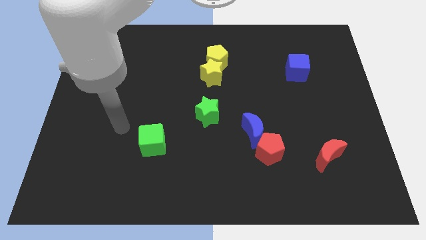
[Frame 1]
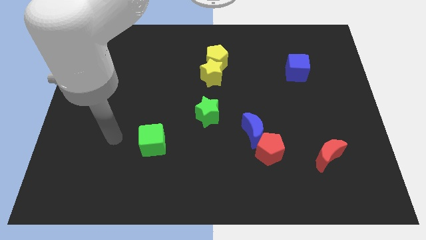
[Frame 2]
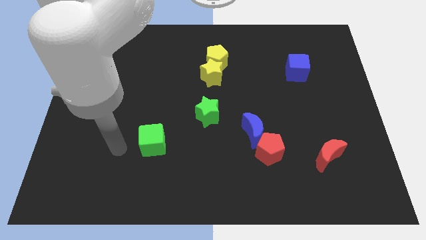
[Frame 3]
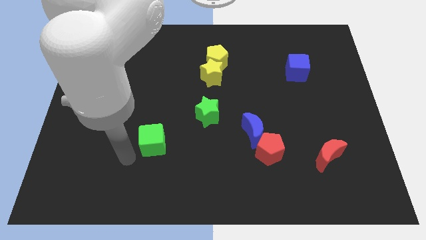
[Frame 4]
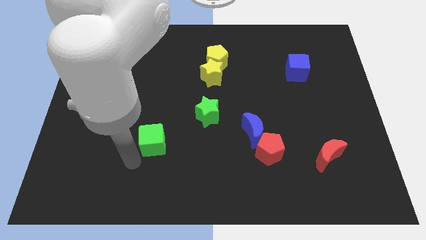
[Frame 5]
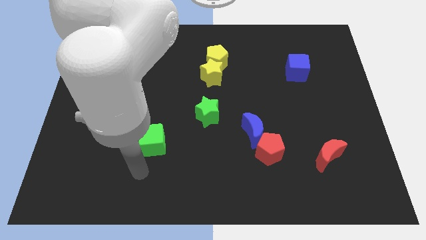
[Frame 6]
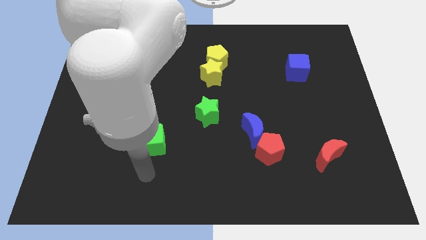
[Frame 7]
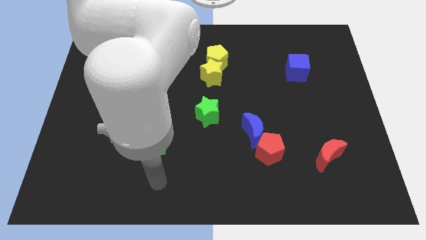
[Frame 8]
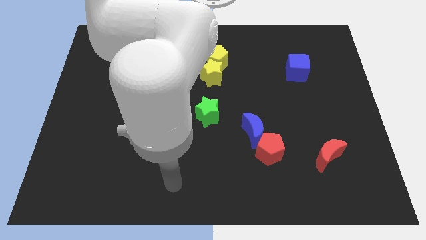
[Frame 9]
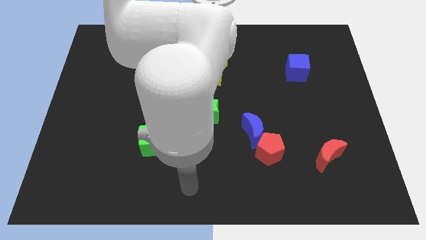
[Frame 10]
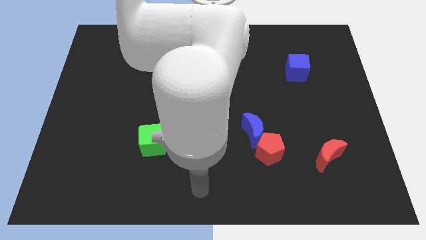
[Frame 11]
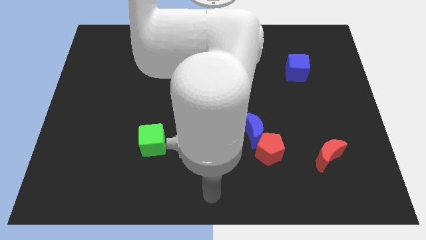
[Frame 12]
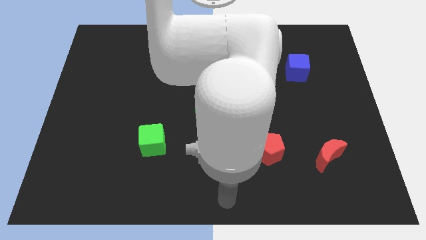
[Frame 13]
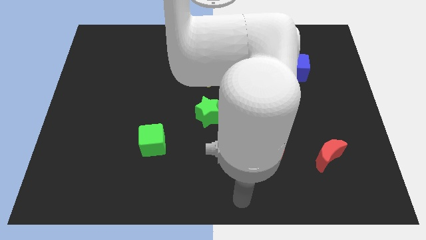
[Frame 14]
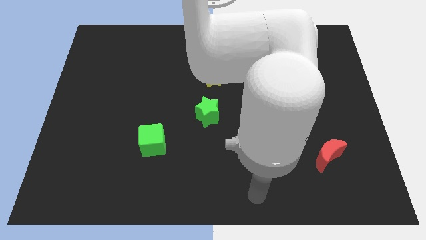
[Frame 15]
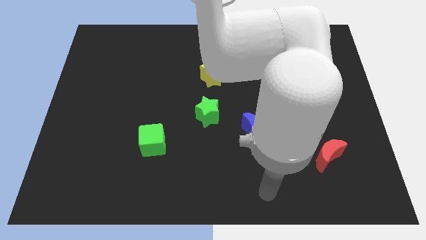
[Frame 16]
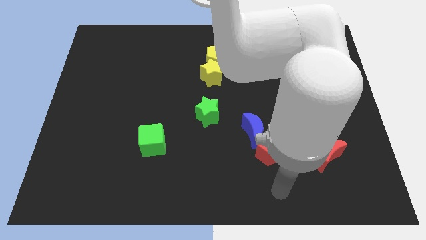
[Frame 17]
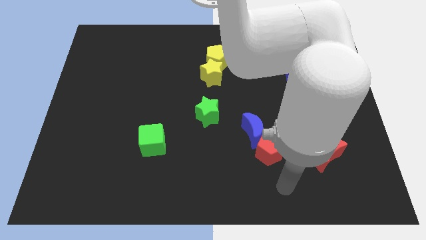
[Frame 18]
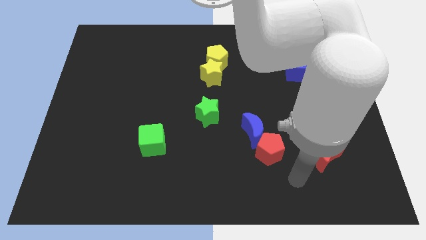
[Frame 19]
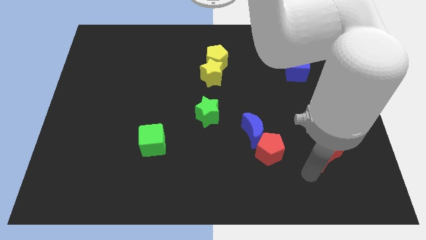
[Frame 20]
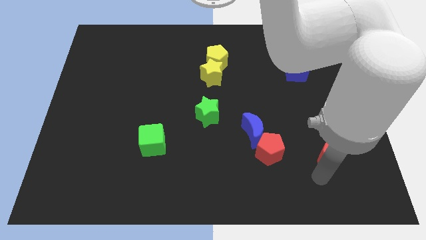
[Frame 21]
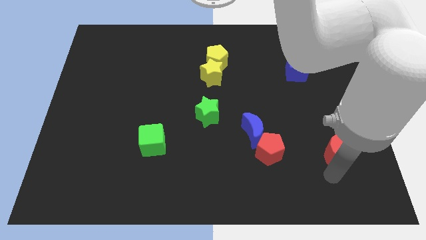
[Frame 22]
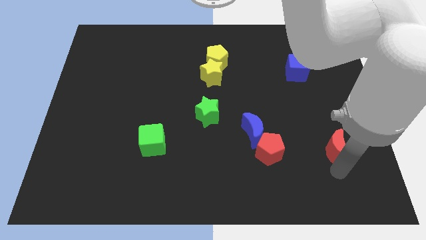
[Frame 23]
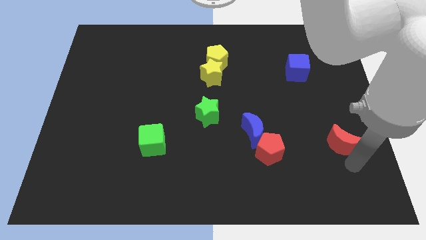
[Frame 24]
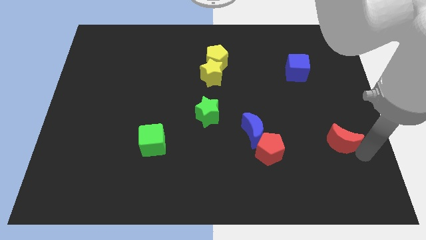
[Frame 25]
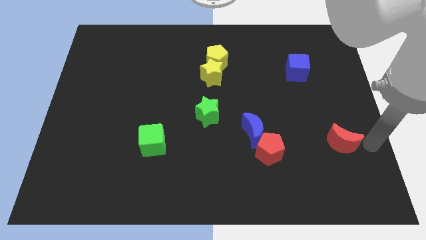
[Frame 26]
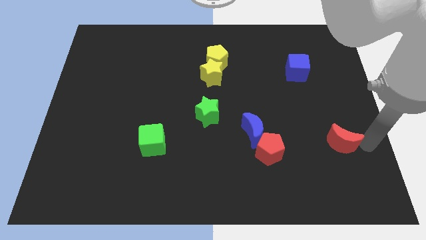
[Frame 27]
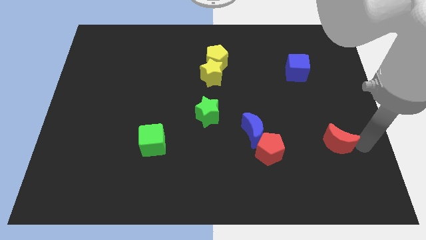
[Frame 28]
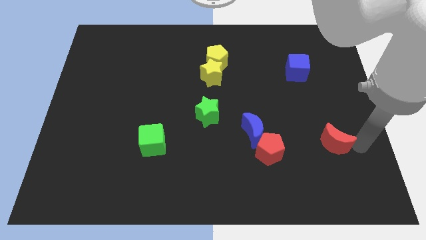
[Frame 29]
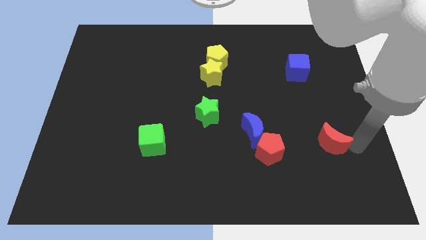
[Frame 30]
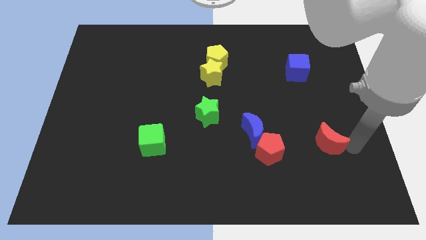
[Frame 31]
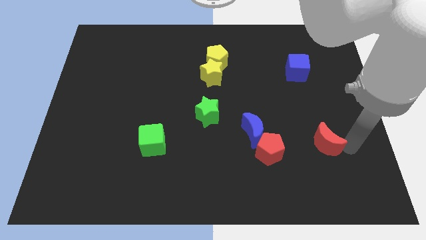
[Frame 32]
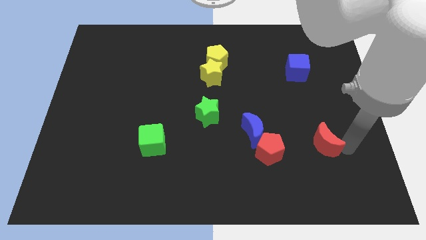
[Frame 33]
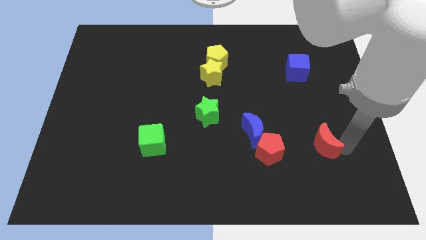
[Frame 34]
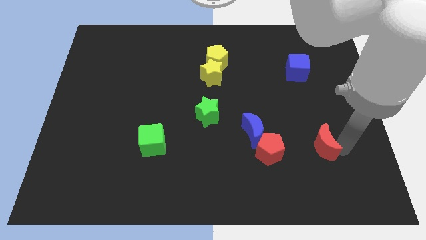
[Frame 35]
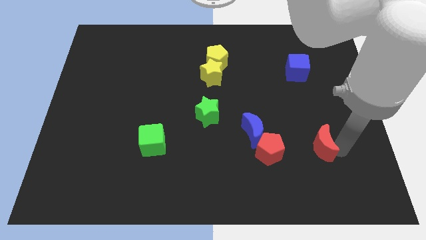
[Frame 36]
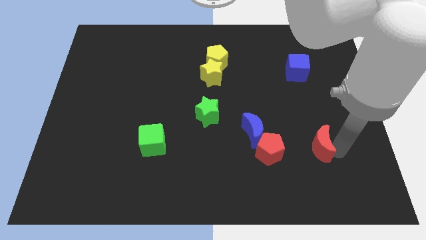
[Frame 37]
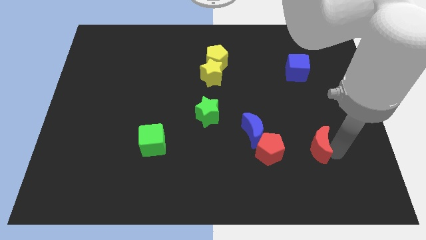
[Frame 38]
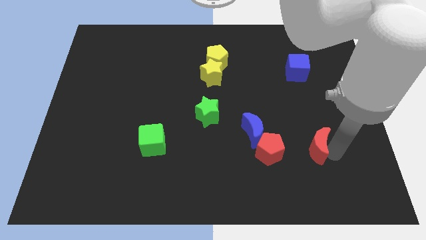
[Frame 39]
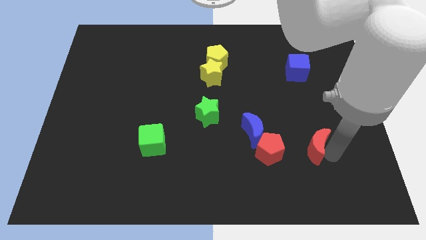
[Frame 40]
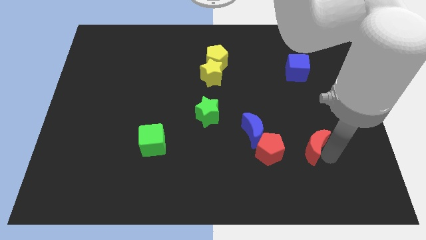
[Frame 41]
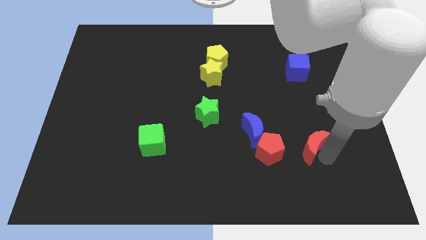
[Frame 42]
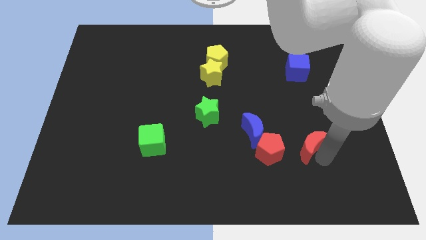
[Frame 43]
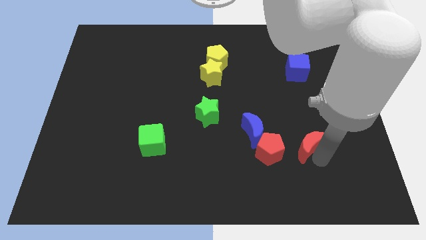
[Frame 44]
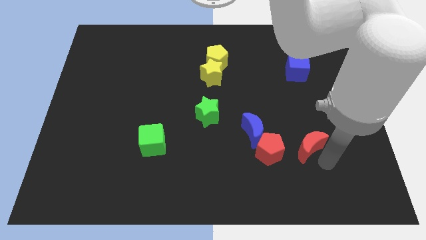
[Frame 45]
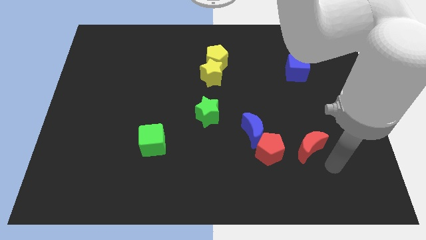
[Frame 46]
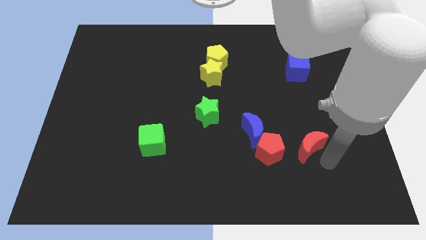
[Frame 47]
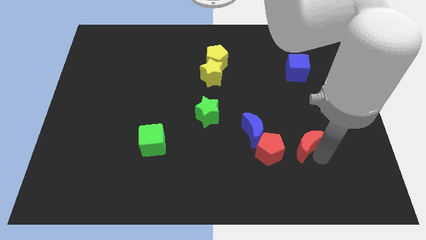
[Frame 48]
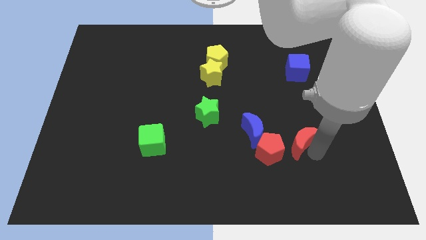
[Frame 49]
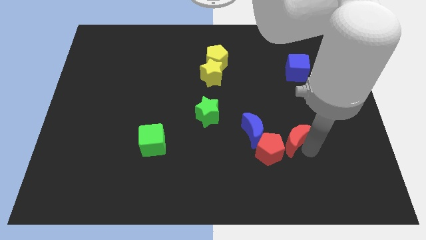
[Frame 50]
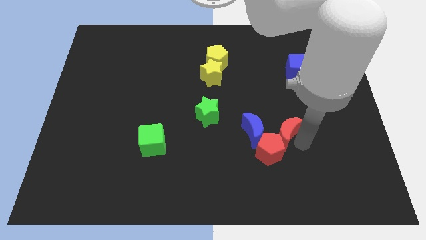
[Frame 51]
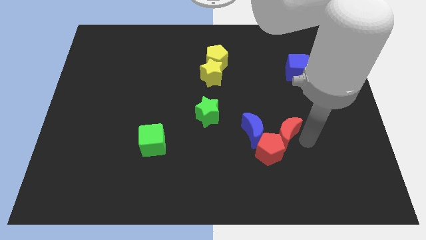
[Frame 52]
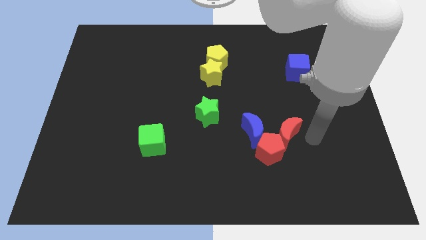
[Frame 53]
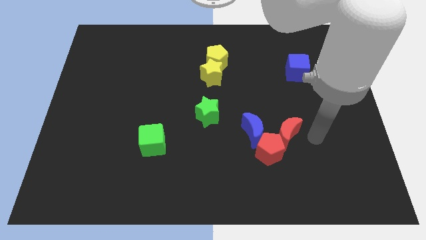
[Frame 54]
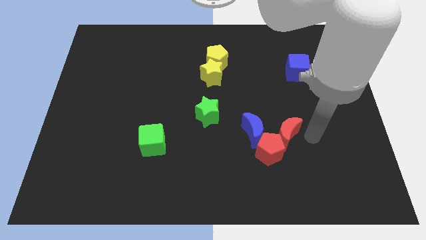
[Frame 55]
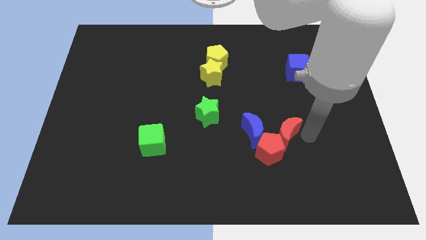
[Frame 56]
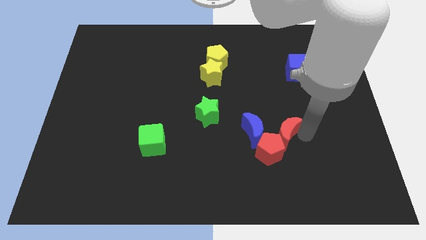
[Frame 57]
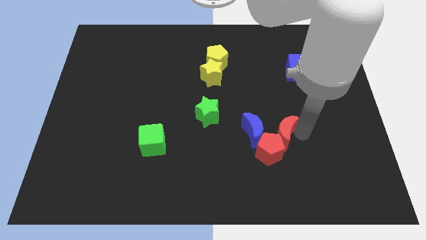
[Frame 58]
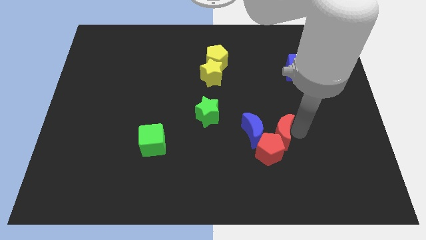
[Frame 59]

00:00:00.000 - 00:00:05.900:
put the red moon to the blue moon

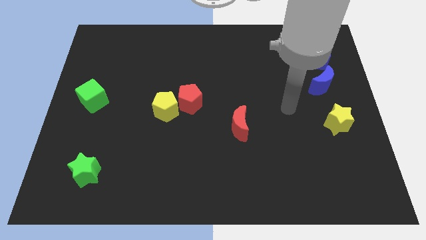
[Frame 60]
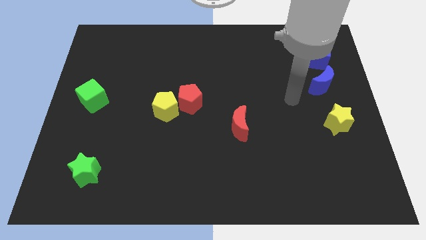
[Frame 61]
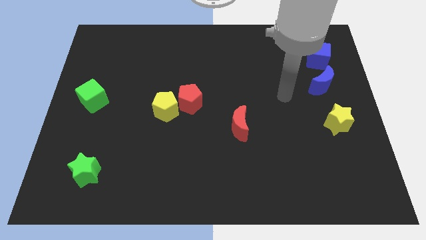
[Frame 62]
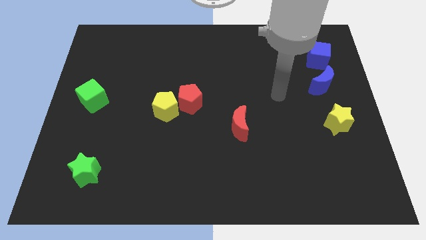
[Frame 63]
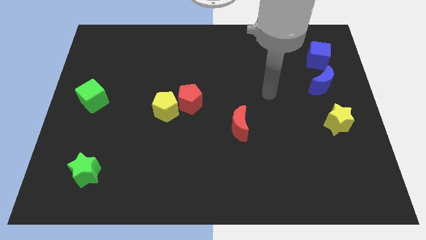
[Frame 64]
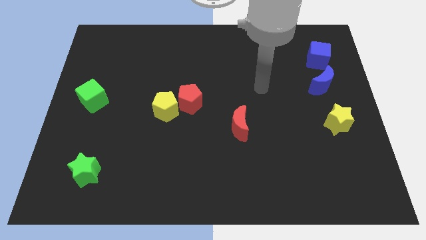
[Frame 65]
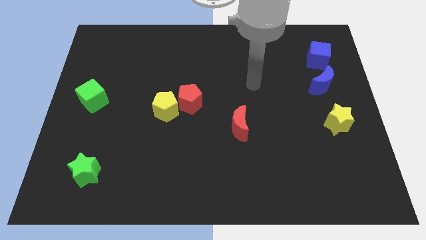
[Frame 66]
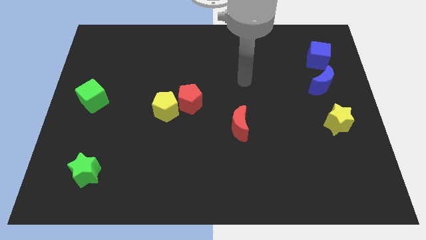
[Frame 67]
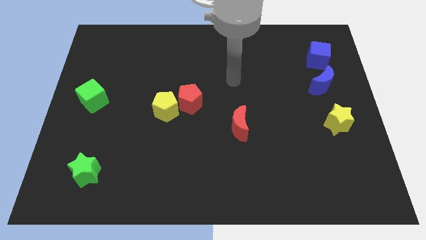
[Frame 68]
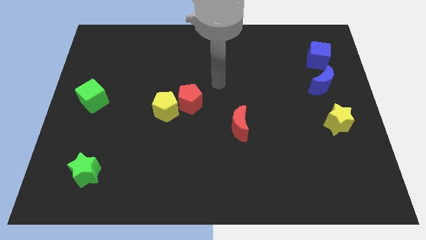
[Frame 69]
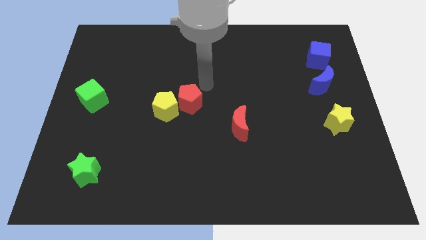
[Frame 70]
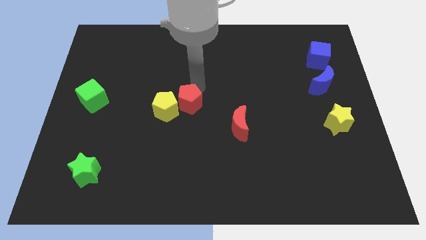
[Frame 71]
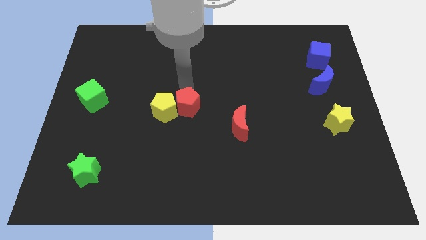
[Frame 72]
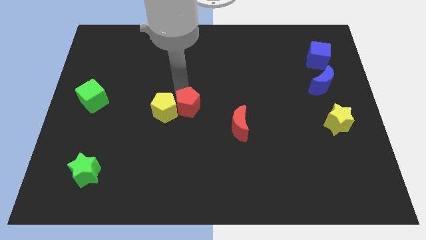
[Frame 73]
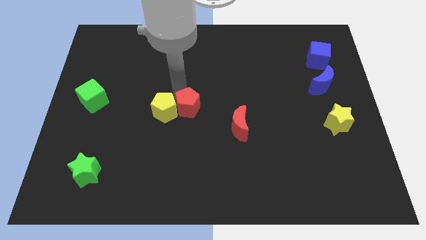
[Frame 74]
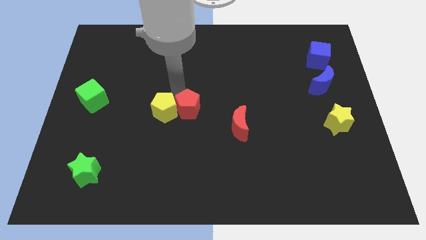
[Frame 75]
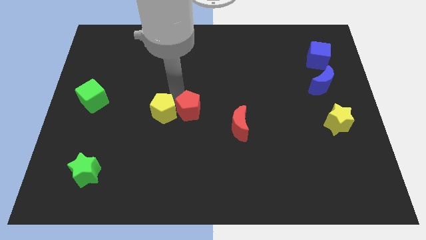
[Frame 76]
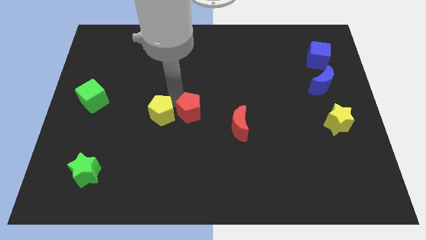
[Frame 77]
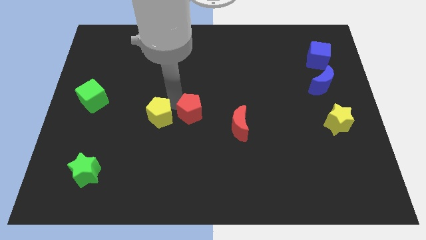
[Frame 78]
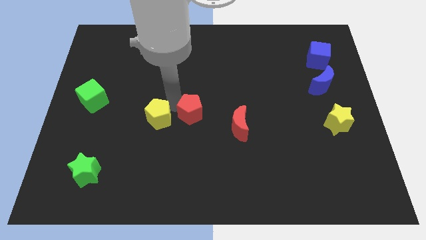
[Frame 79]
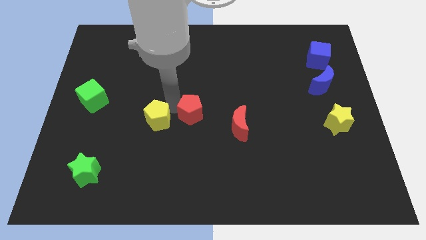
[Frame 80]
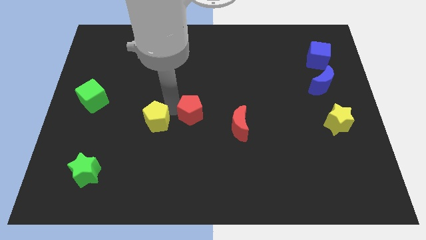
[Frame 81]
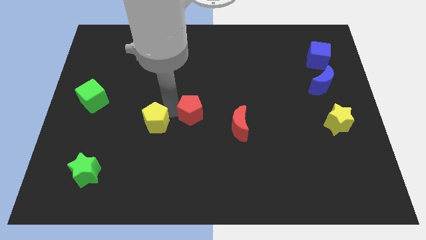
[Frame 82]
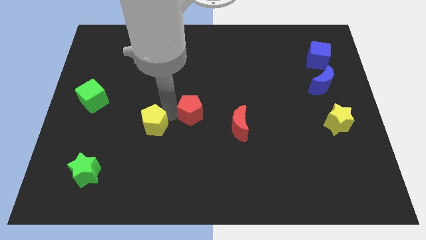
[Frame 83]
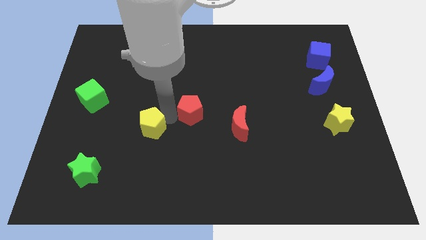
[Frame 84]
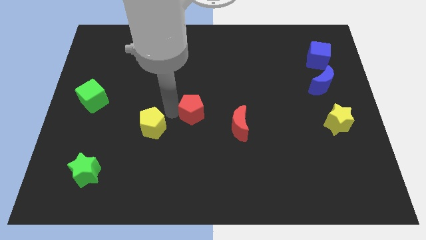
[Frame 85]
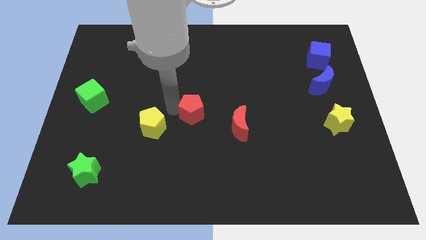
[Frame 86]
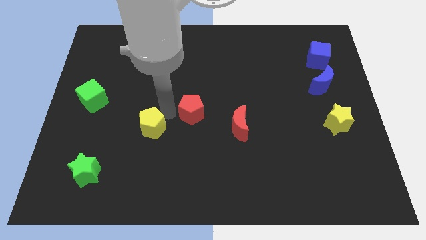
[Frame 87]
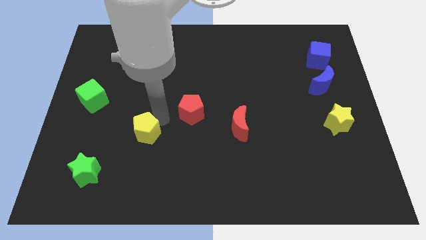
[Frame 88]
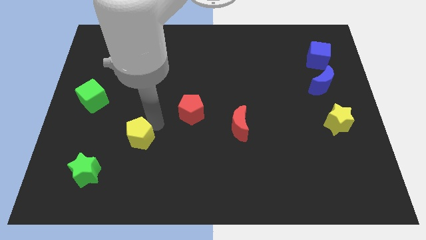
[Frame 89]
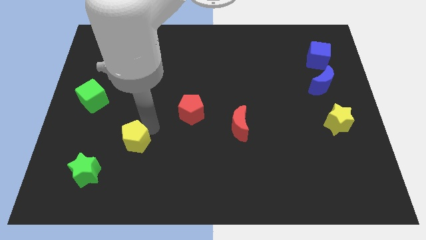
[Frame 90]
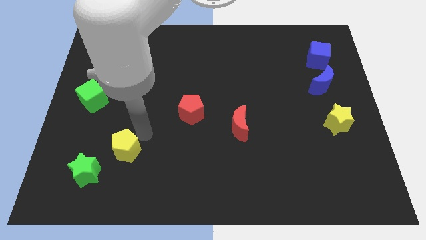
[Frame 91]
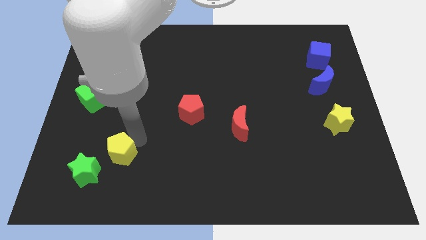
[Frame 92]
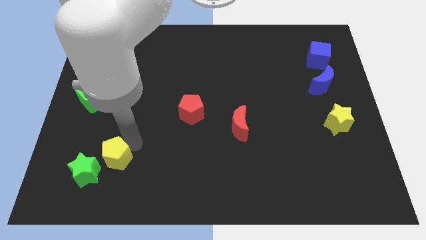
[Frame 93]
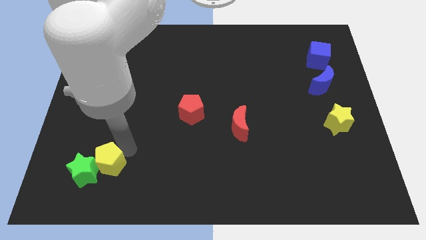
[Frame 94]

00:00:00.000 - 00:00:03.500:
push the yellow pentagon towards the green star
